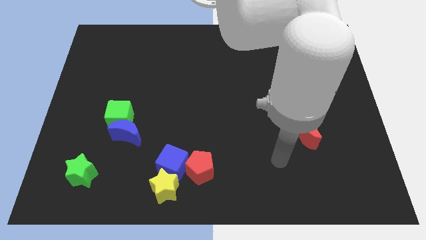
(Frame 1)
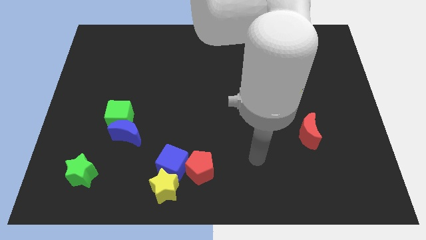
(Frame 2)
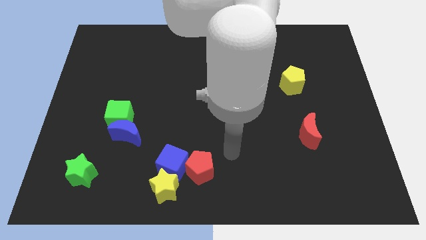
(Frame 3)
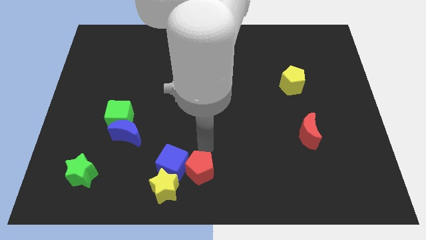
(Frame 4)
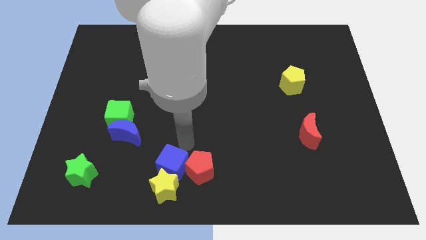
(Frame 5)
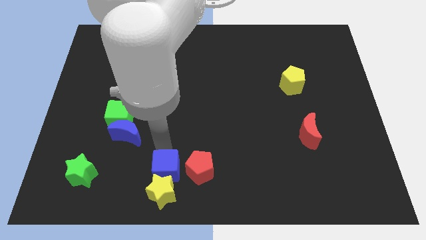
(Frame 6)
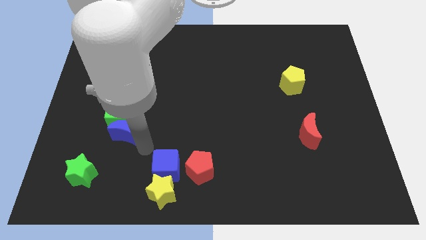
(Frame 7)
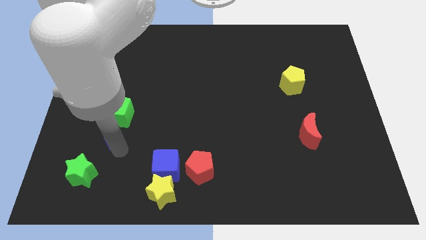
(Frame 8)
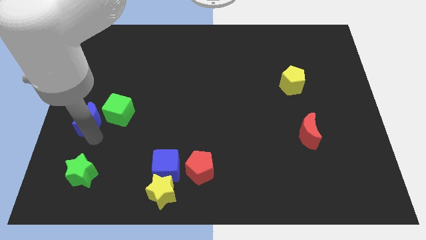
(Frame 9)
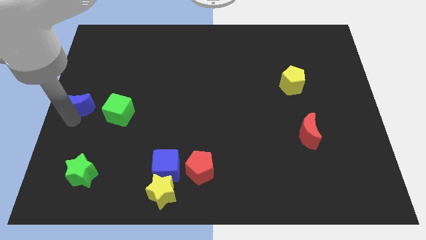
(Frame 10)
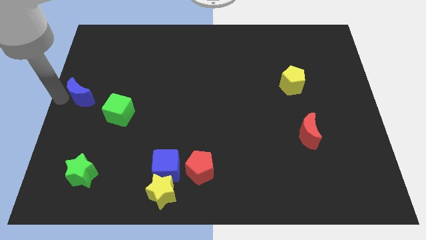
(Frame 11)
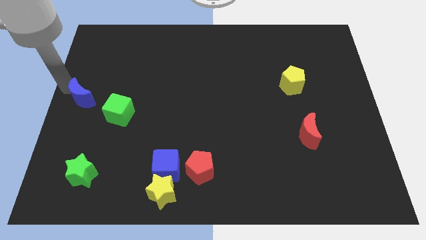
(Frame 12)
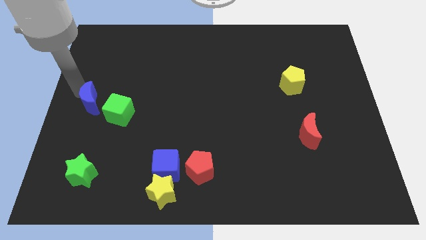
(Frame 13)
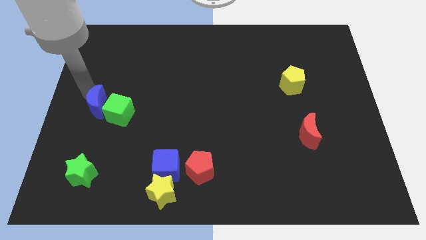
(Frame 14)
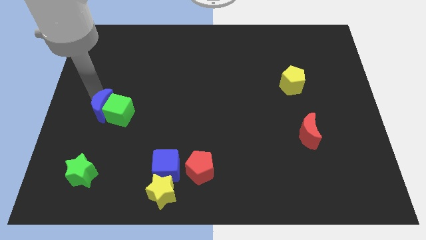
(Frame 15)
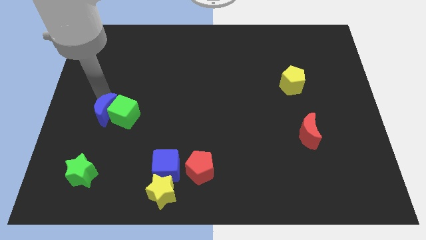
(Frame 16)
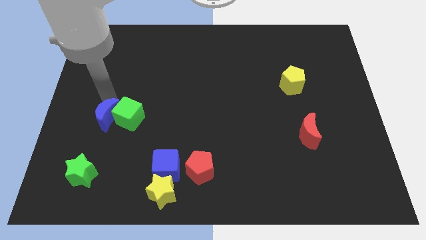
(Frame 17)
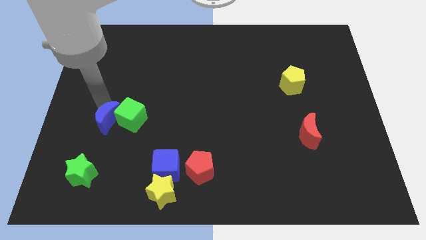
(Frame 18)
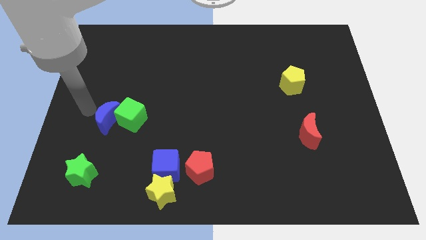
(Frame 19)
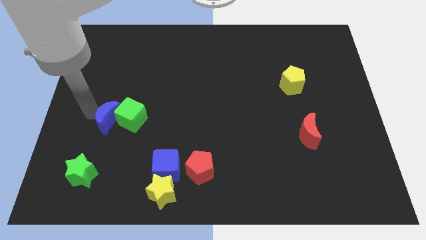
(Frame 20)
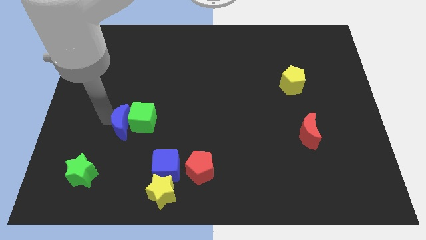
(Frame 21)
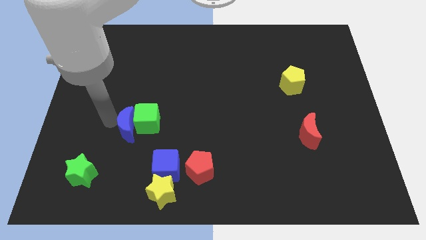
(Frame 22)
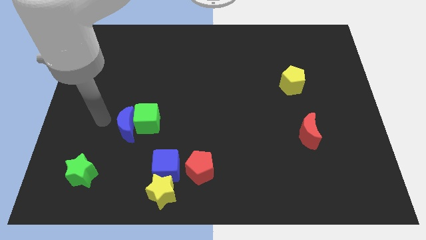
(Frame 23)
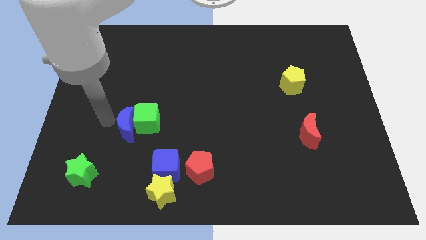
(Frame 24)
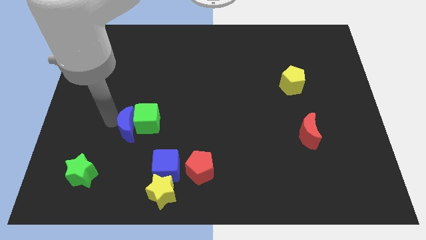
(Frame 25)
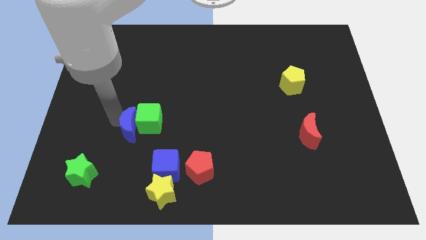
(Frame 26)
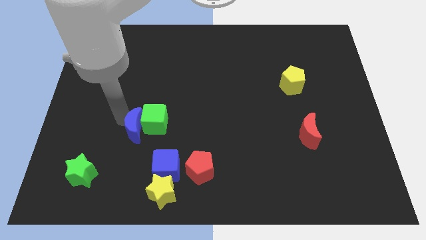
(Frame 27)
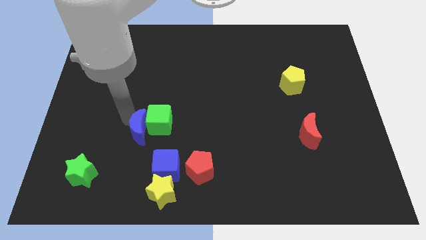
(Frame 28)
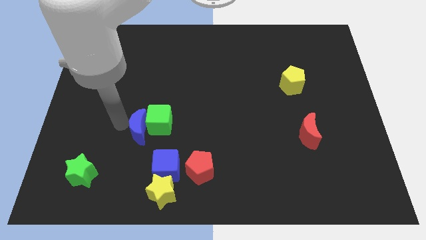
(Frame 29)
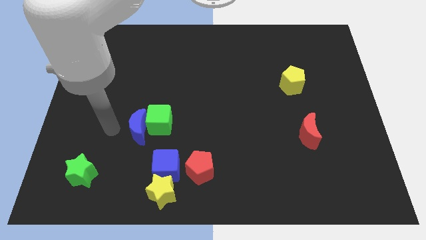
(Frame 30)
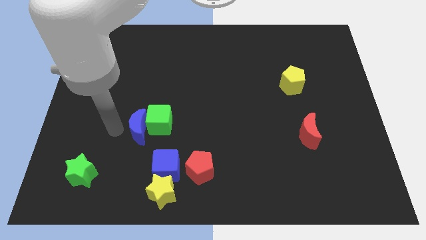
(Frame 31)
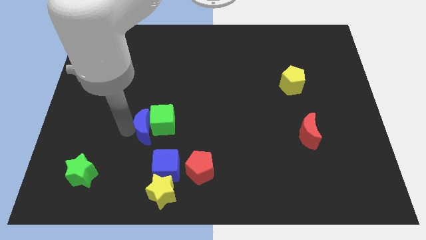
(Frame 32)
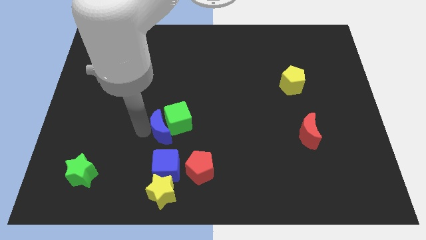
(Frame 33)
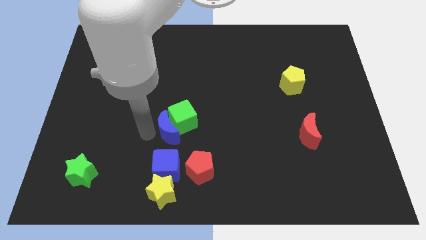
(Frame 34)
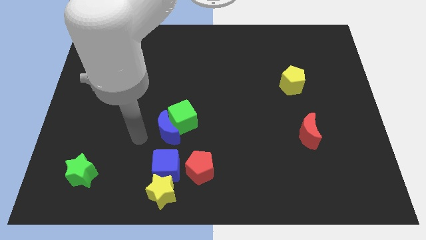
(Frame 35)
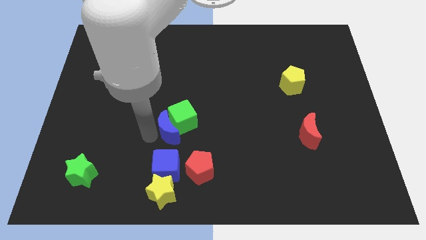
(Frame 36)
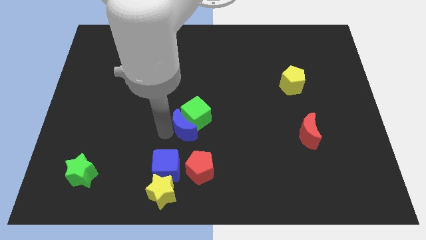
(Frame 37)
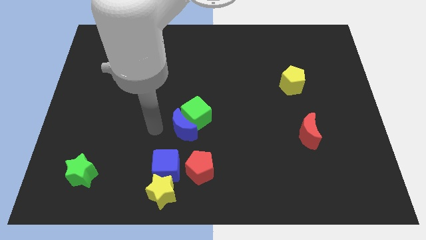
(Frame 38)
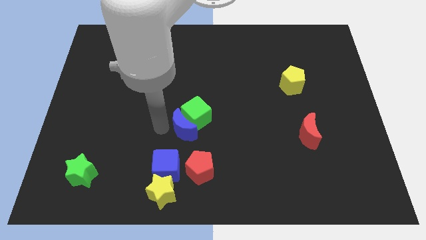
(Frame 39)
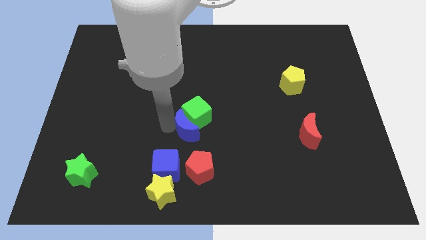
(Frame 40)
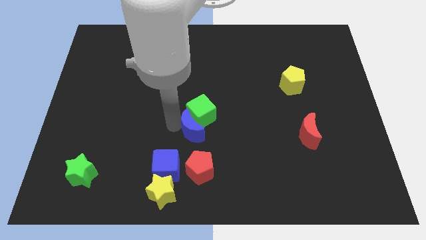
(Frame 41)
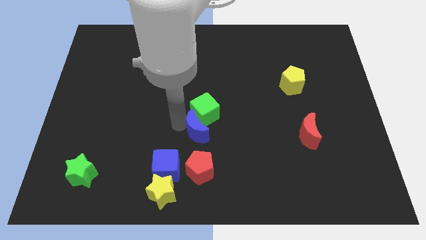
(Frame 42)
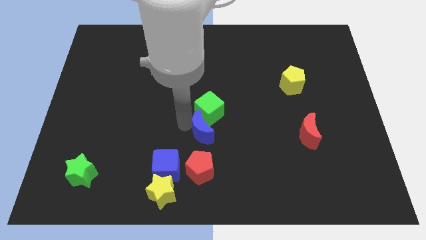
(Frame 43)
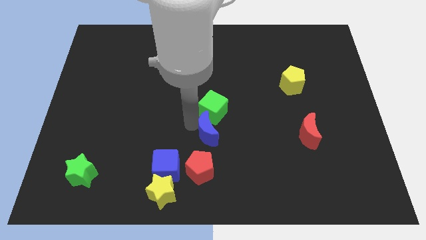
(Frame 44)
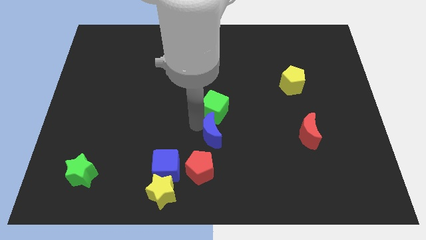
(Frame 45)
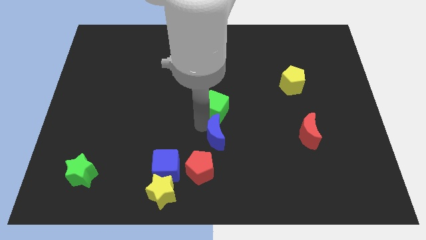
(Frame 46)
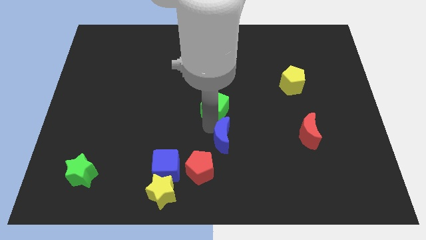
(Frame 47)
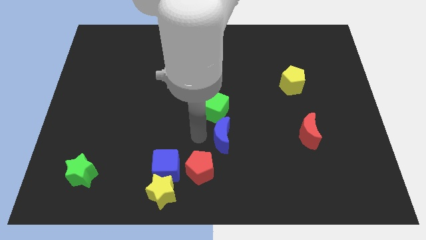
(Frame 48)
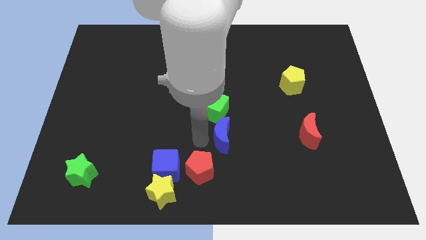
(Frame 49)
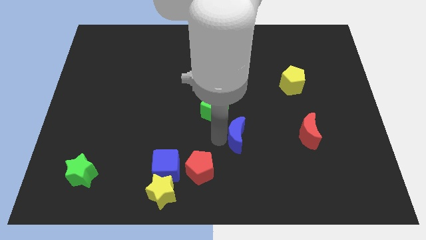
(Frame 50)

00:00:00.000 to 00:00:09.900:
move the blue moon to the left of the red moon

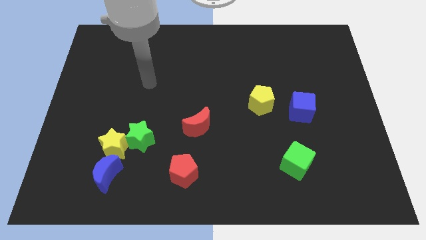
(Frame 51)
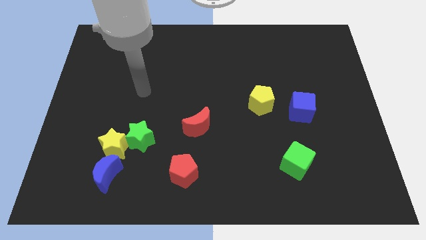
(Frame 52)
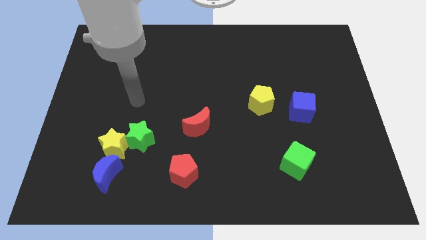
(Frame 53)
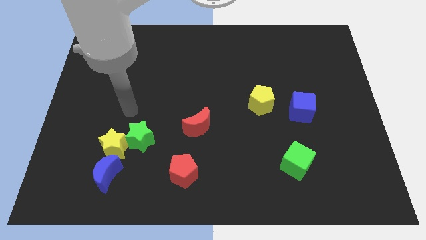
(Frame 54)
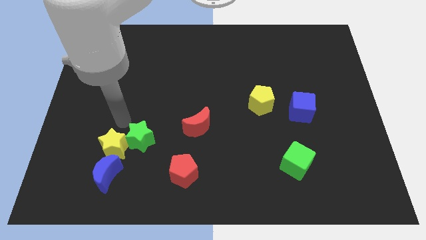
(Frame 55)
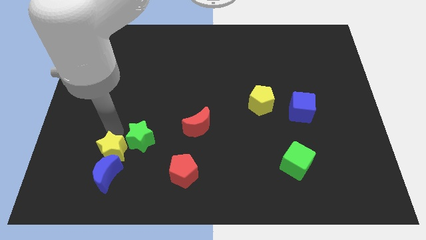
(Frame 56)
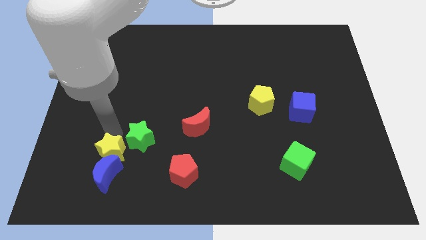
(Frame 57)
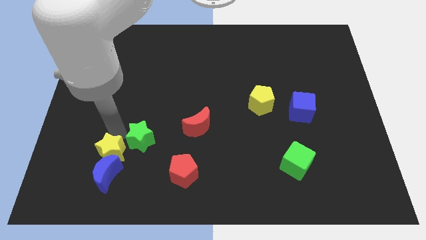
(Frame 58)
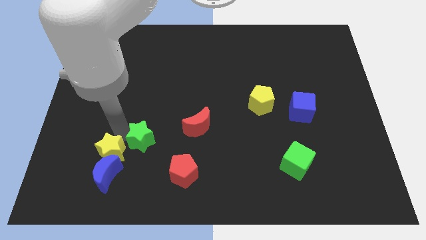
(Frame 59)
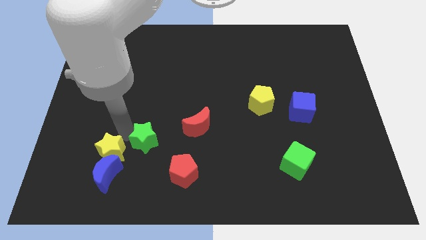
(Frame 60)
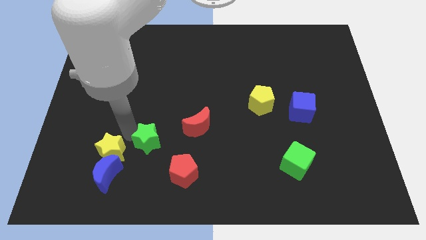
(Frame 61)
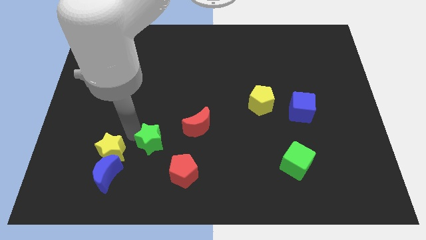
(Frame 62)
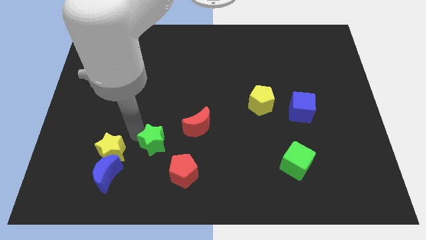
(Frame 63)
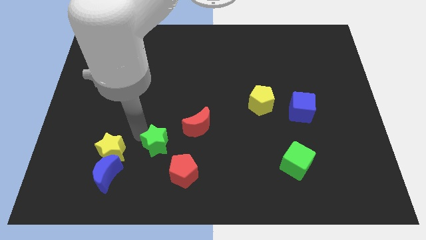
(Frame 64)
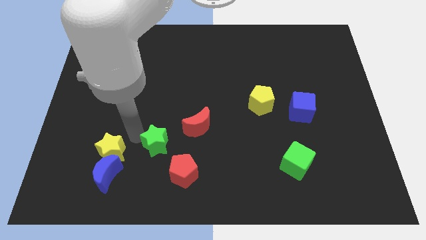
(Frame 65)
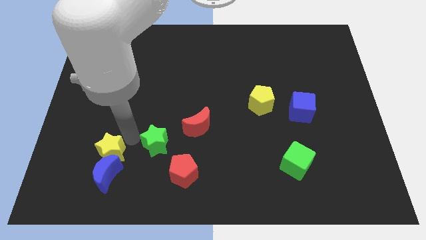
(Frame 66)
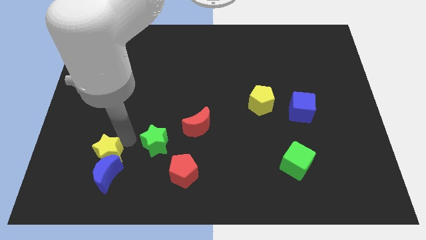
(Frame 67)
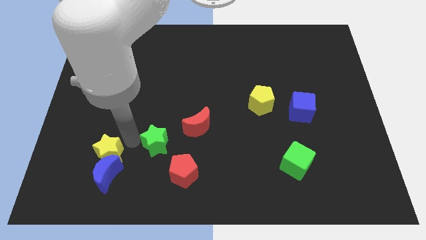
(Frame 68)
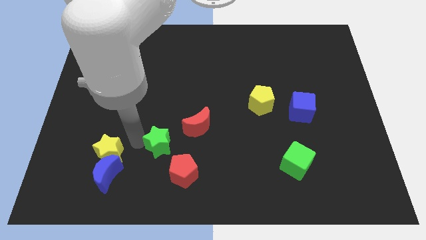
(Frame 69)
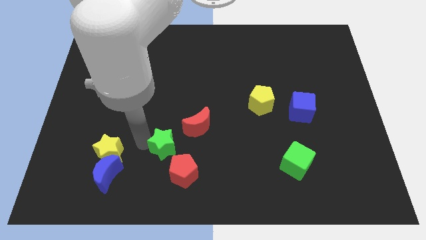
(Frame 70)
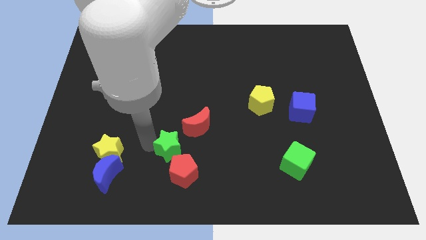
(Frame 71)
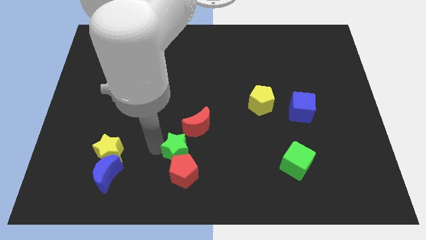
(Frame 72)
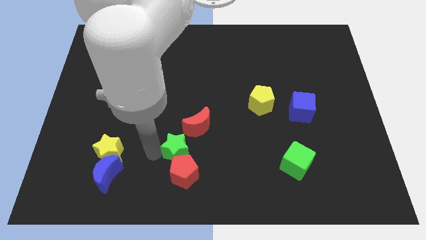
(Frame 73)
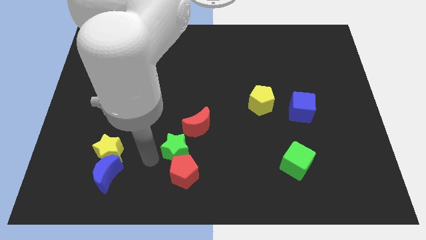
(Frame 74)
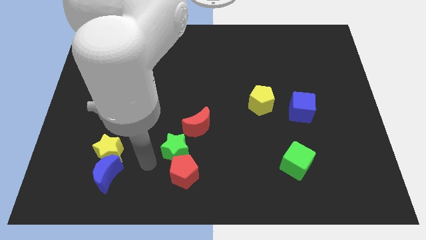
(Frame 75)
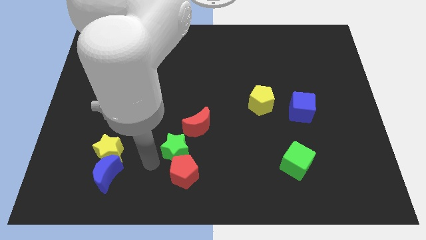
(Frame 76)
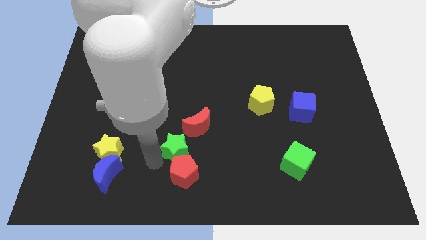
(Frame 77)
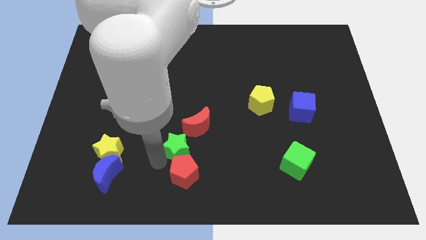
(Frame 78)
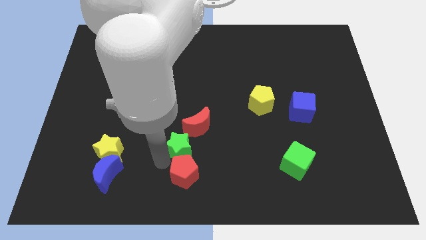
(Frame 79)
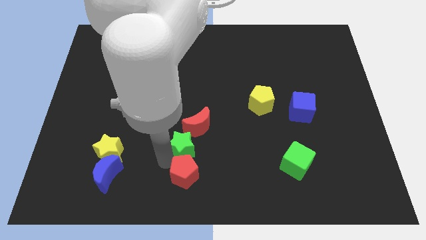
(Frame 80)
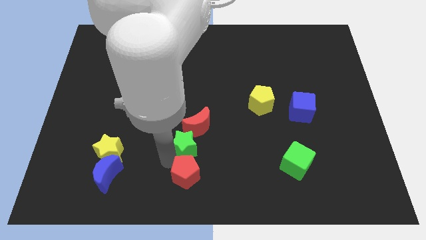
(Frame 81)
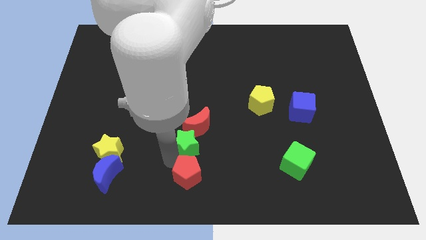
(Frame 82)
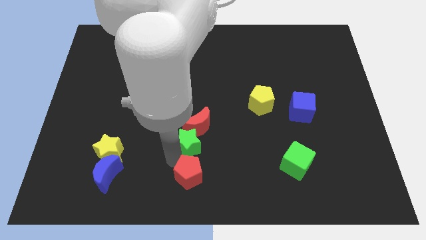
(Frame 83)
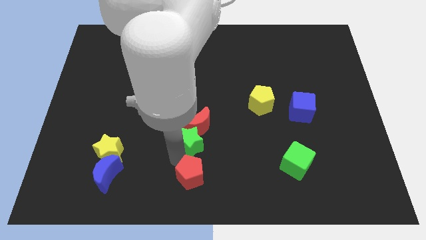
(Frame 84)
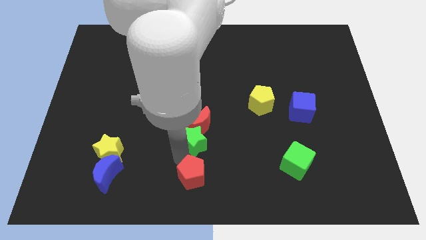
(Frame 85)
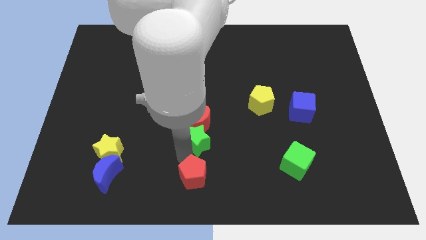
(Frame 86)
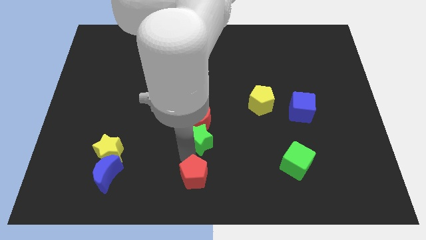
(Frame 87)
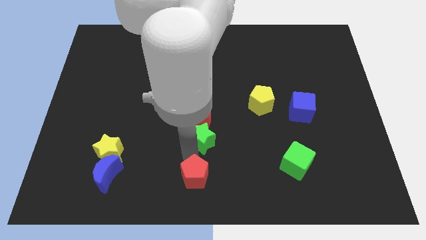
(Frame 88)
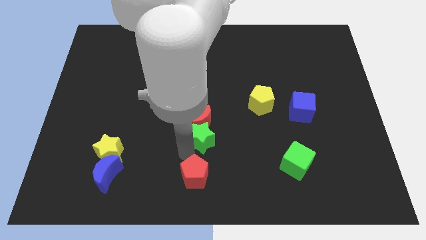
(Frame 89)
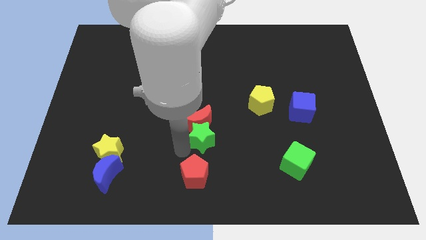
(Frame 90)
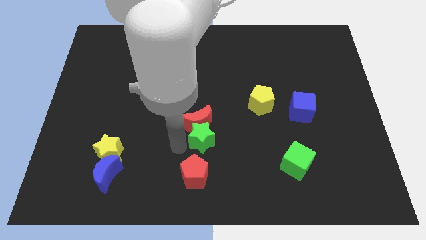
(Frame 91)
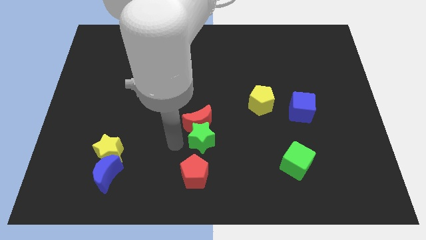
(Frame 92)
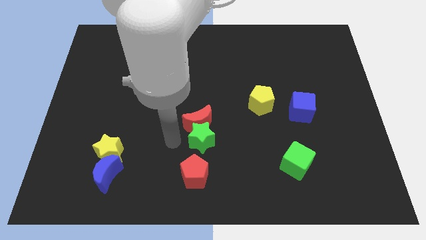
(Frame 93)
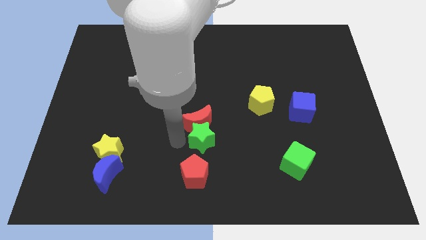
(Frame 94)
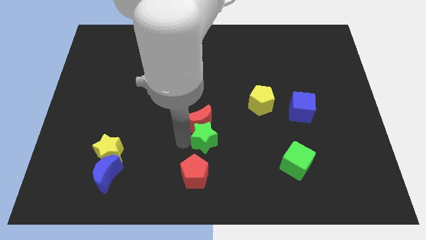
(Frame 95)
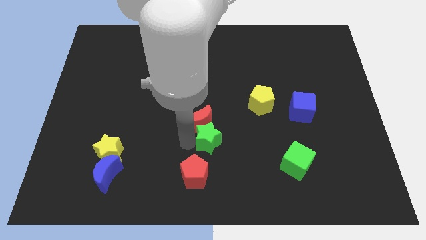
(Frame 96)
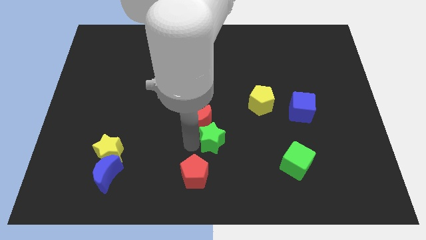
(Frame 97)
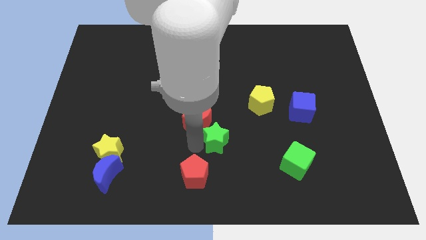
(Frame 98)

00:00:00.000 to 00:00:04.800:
slide the green star just right of the red moon
